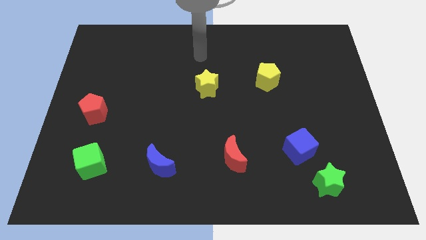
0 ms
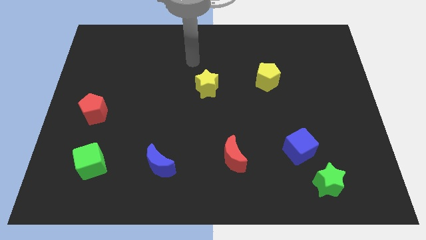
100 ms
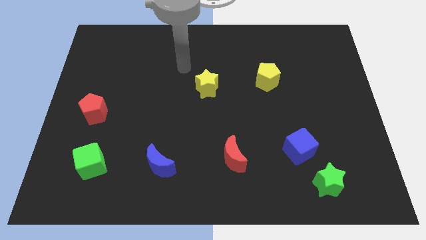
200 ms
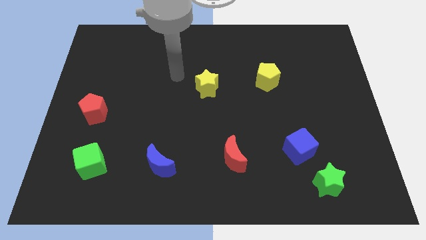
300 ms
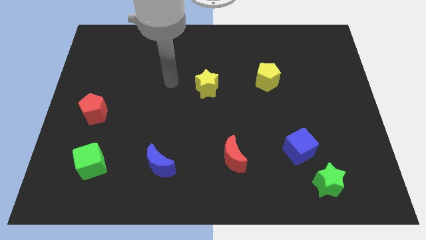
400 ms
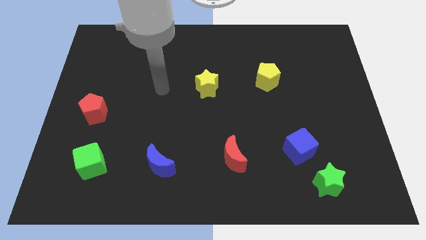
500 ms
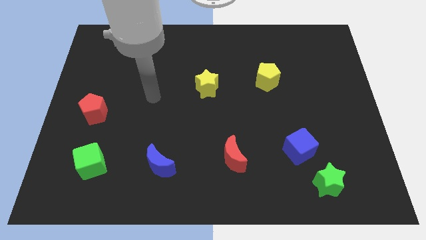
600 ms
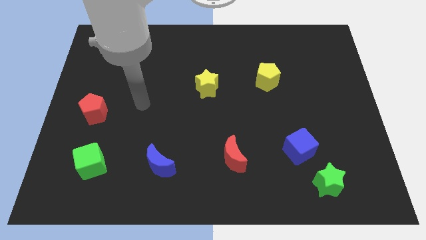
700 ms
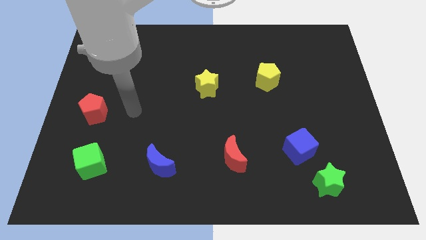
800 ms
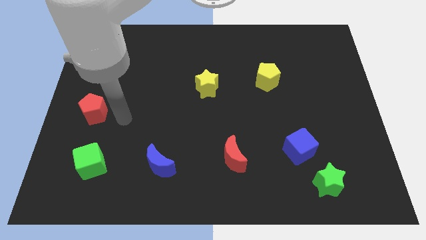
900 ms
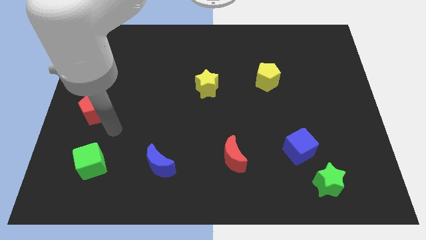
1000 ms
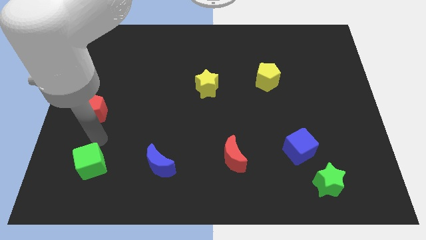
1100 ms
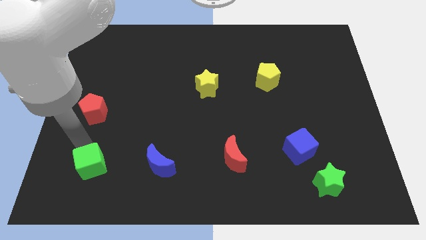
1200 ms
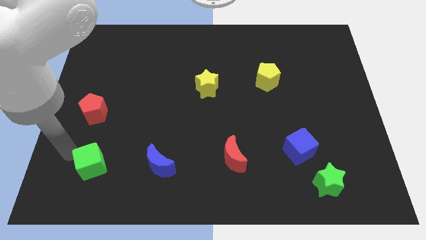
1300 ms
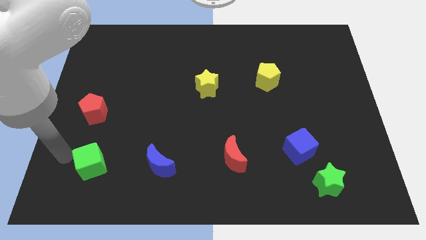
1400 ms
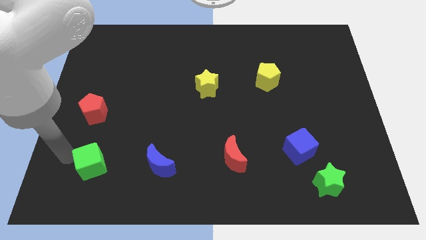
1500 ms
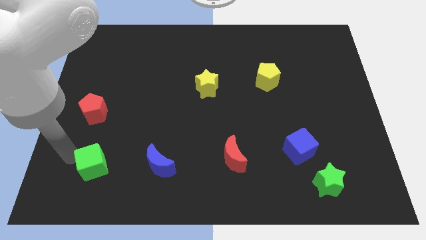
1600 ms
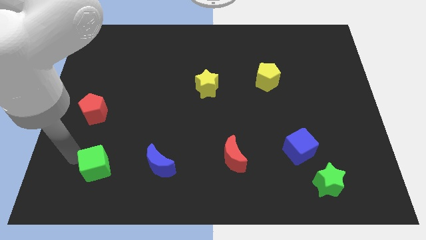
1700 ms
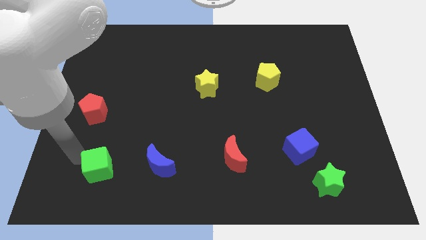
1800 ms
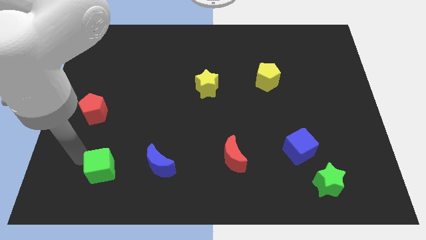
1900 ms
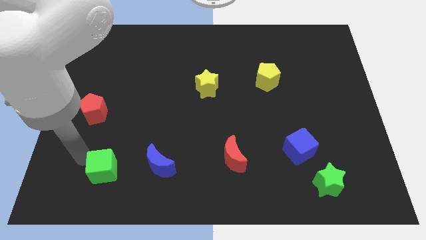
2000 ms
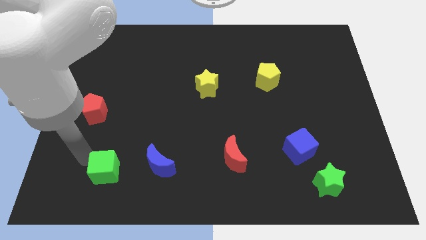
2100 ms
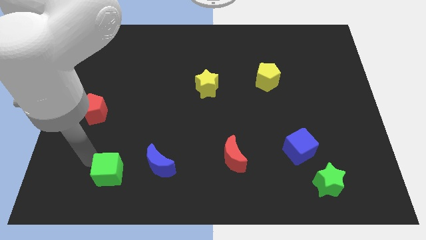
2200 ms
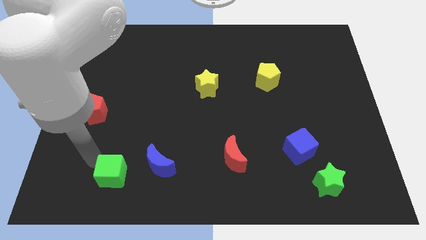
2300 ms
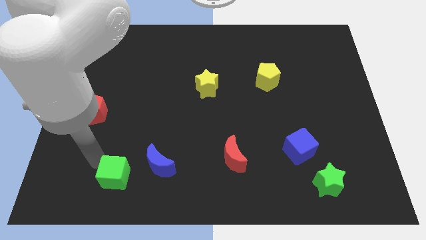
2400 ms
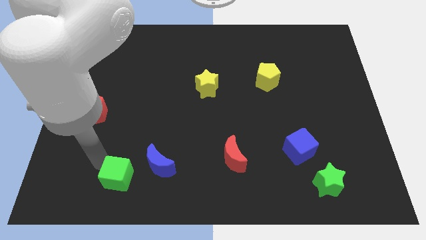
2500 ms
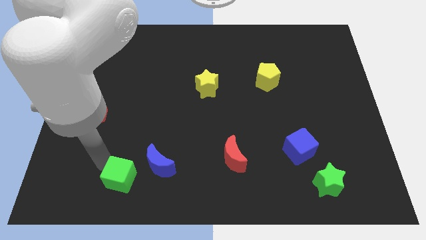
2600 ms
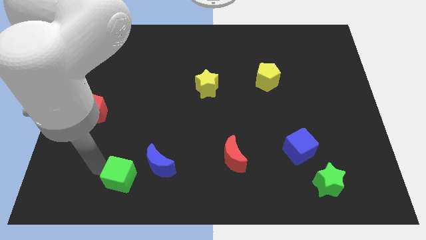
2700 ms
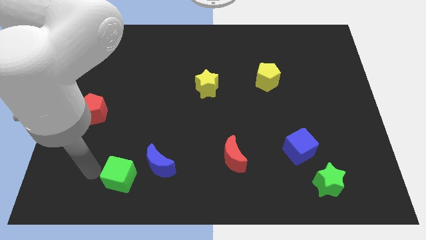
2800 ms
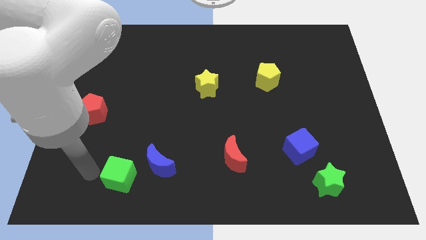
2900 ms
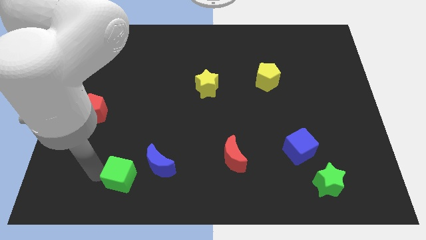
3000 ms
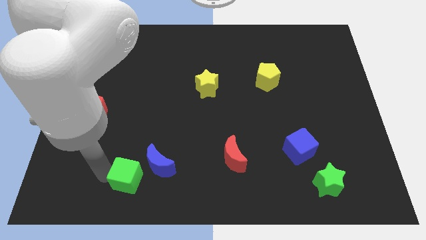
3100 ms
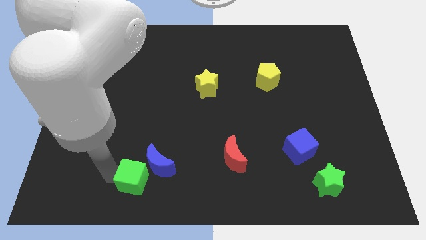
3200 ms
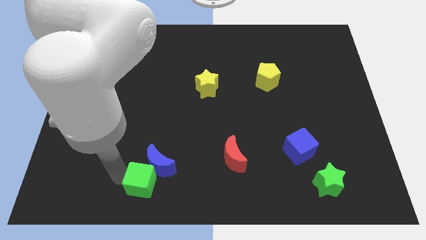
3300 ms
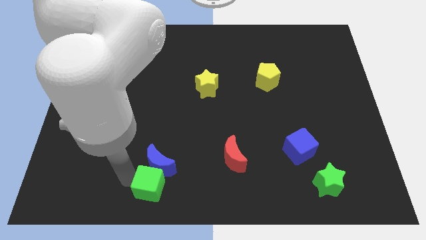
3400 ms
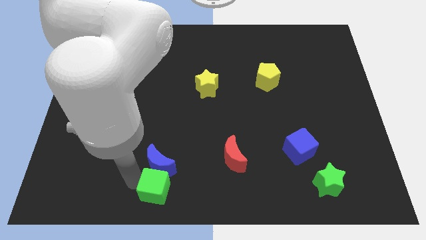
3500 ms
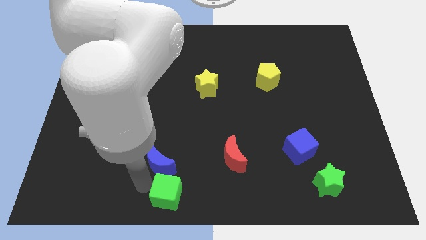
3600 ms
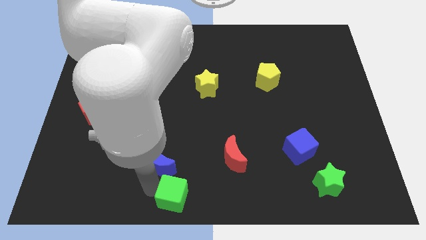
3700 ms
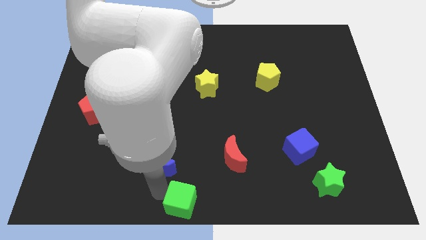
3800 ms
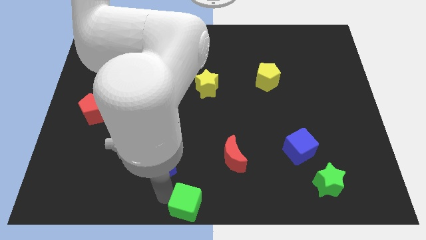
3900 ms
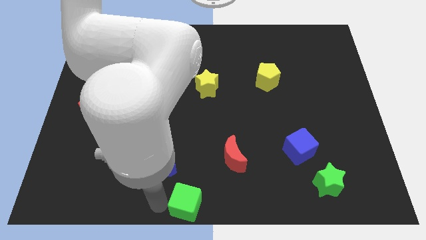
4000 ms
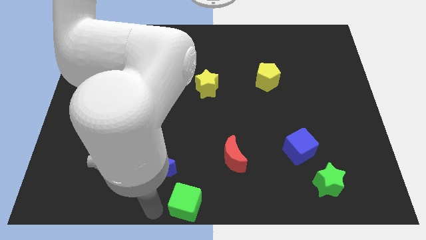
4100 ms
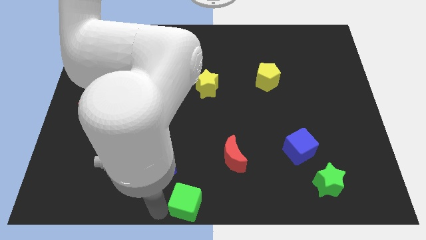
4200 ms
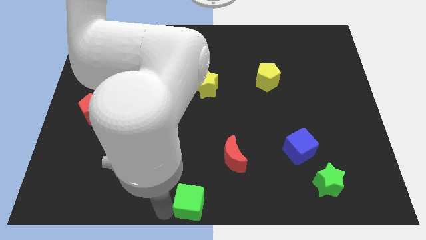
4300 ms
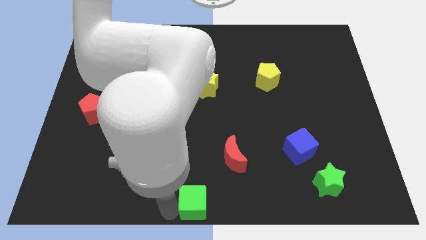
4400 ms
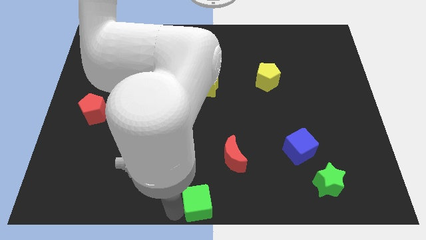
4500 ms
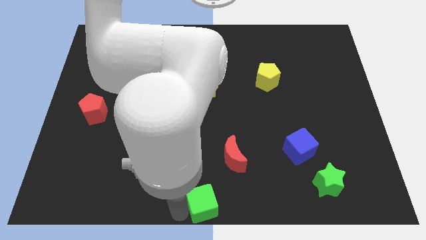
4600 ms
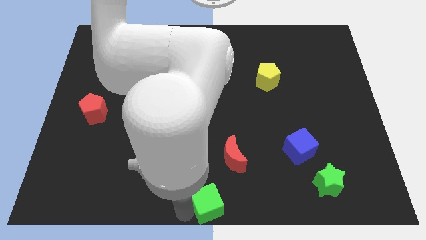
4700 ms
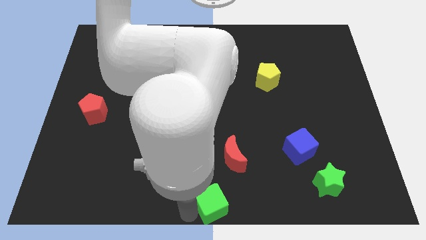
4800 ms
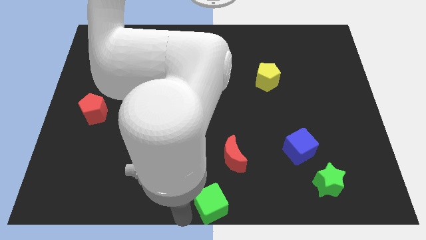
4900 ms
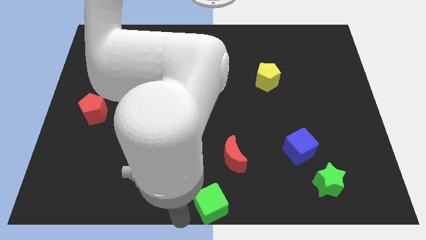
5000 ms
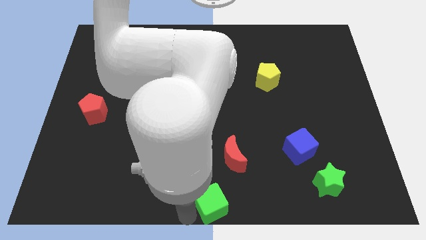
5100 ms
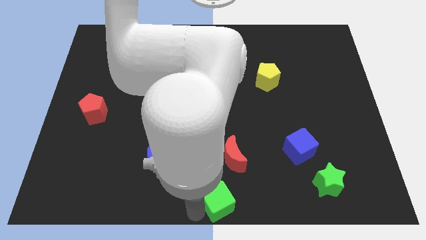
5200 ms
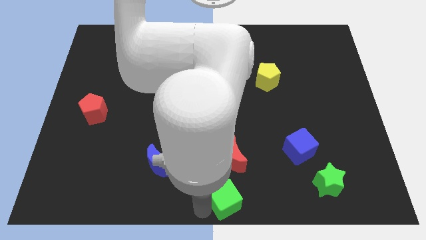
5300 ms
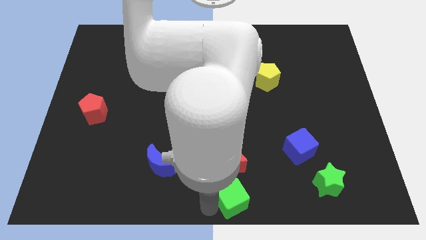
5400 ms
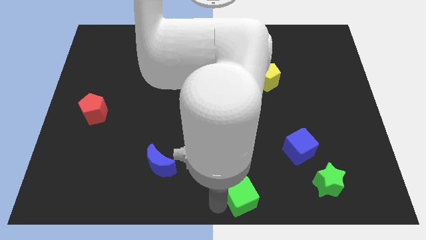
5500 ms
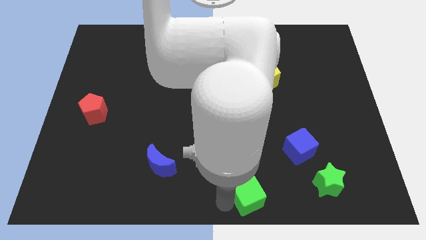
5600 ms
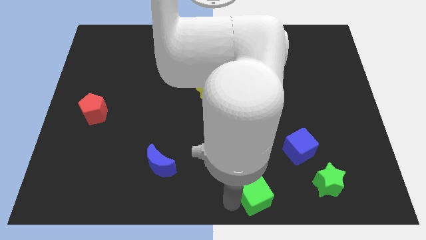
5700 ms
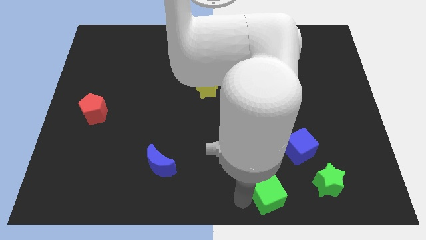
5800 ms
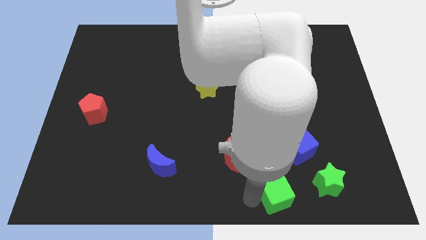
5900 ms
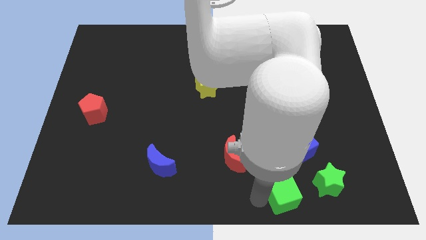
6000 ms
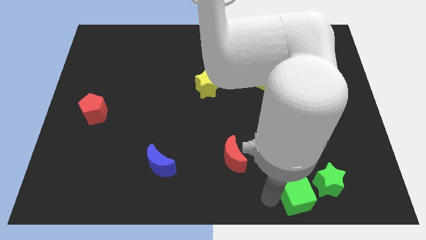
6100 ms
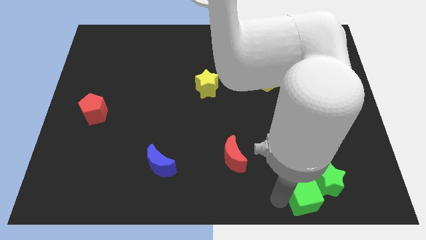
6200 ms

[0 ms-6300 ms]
move the green cube to the green star

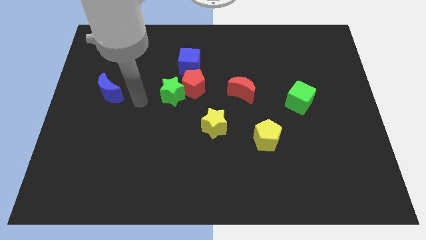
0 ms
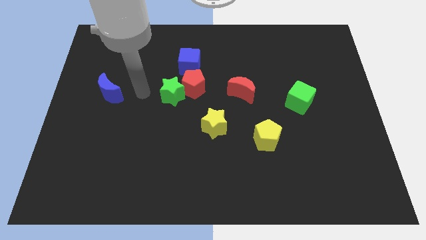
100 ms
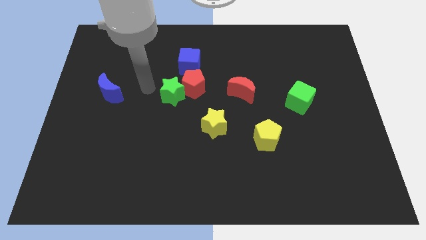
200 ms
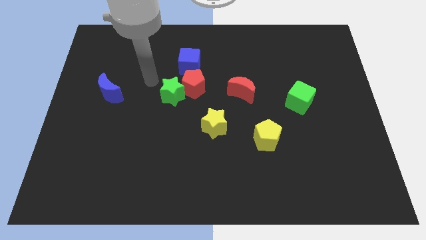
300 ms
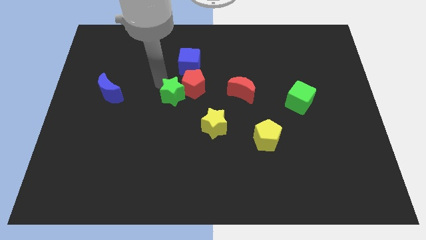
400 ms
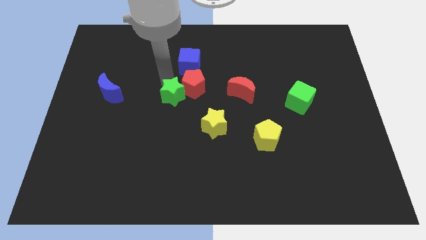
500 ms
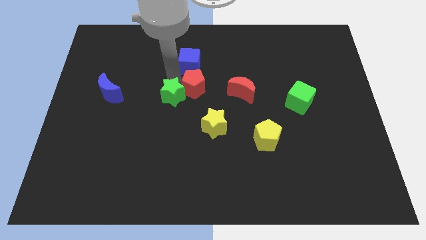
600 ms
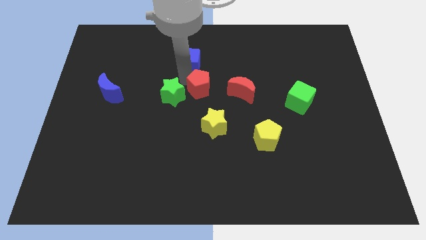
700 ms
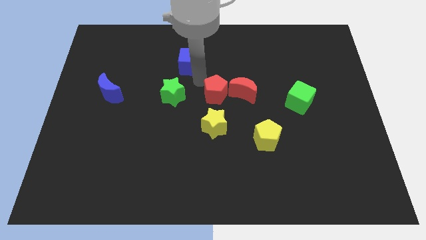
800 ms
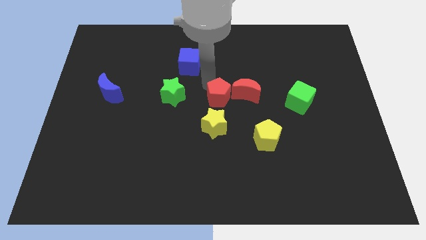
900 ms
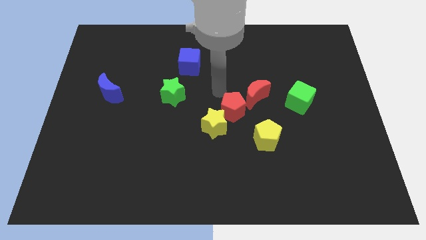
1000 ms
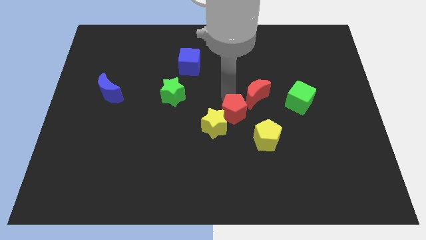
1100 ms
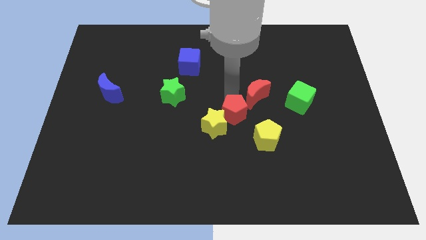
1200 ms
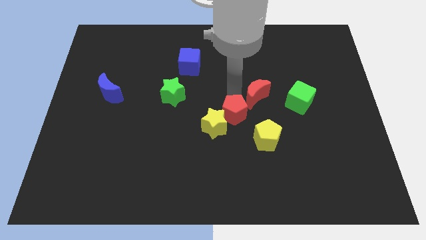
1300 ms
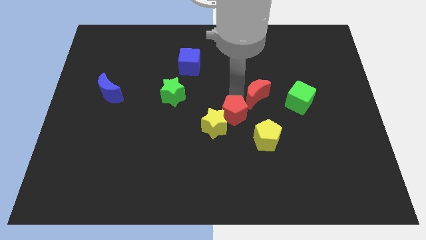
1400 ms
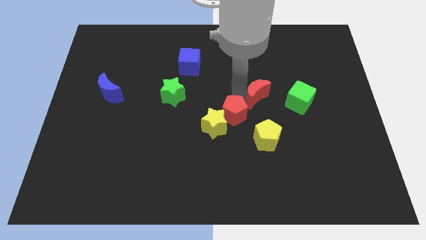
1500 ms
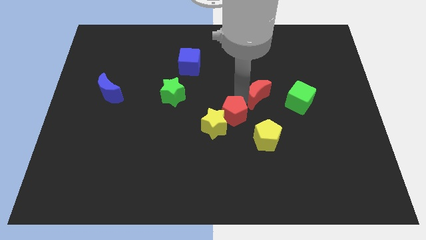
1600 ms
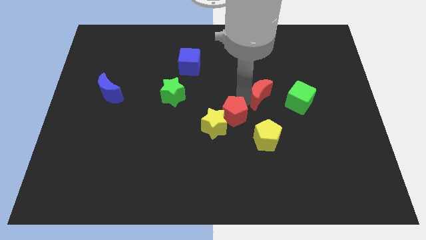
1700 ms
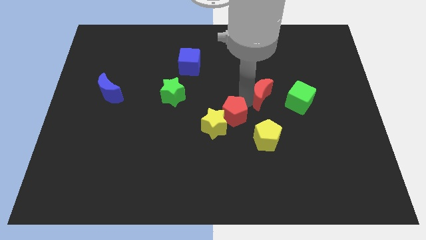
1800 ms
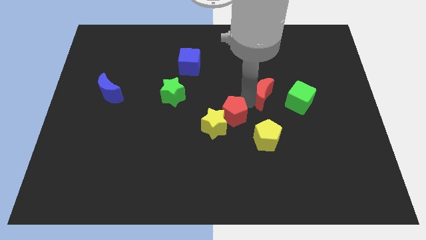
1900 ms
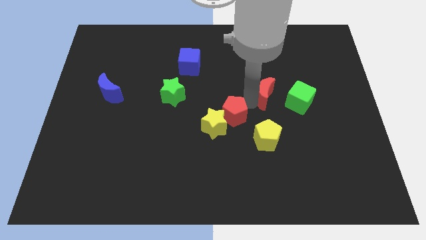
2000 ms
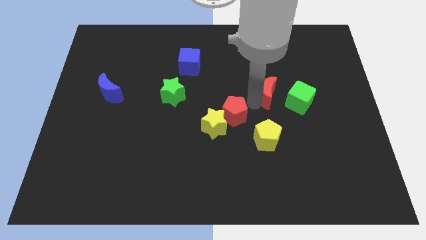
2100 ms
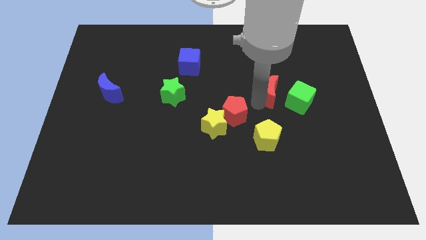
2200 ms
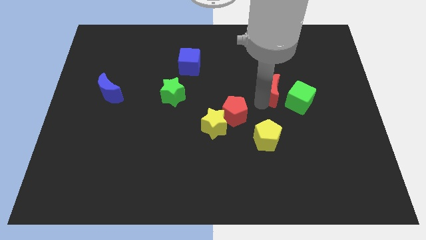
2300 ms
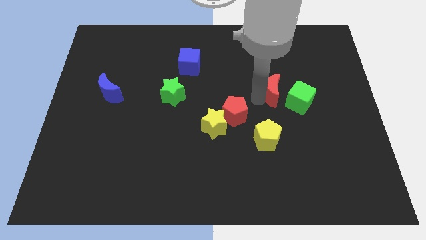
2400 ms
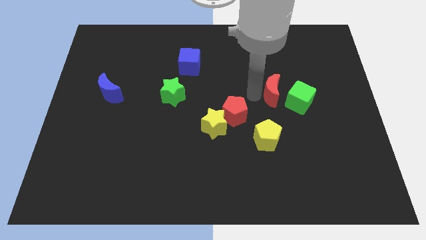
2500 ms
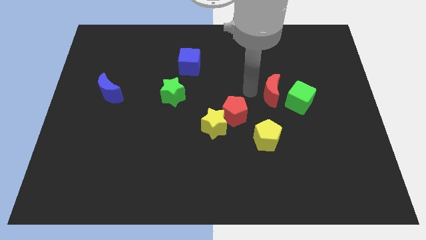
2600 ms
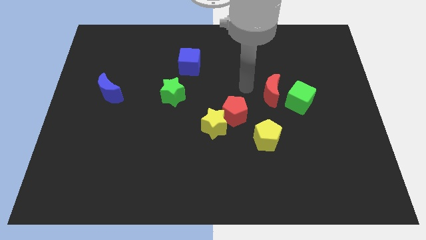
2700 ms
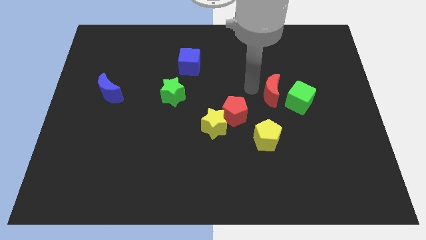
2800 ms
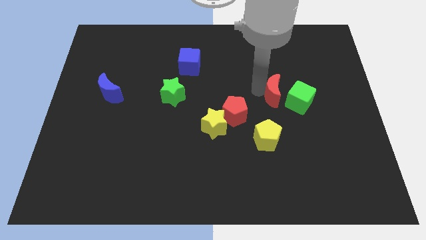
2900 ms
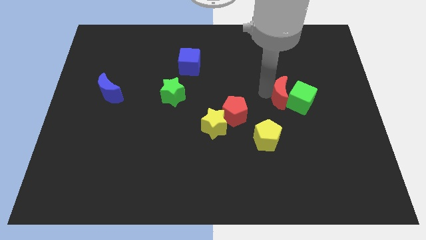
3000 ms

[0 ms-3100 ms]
move the red moon to the green cube
